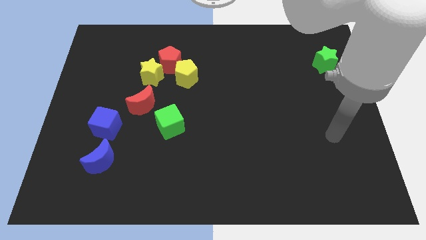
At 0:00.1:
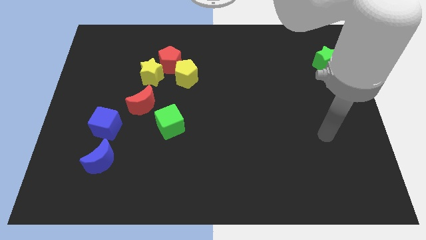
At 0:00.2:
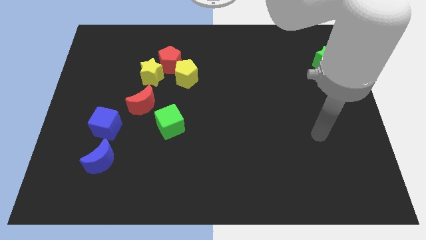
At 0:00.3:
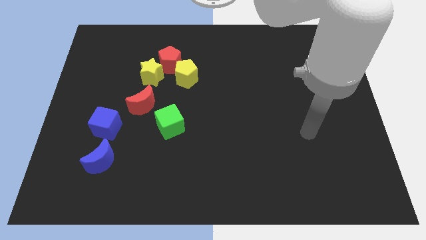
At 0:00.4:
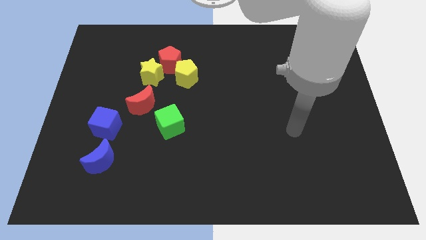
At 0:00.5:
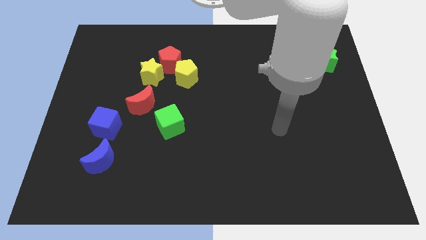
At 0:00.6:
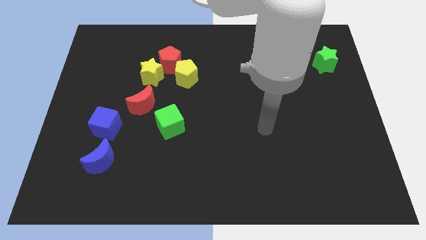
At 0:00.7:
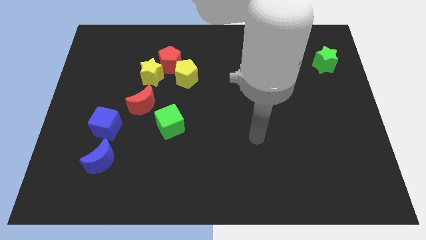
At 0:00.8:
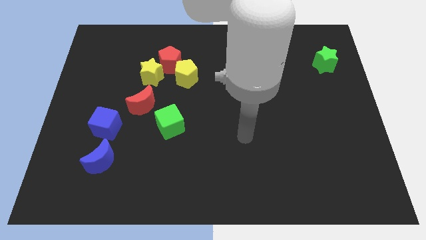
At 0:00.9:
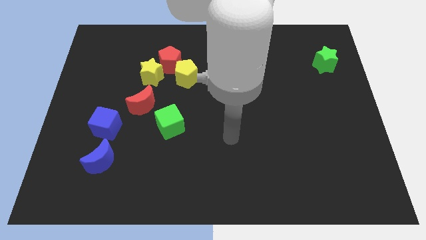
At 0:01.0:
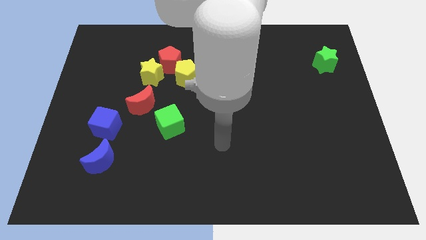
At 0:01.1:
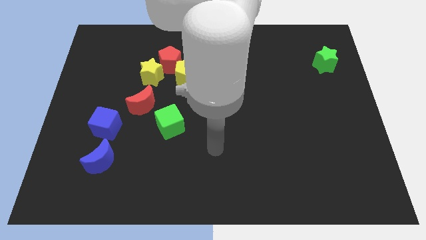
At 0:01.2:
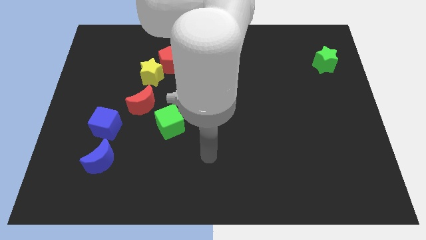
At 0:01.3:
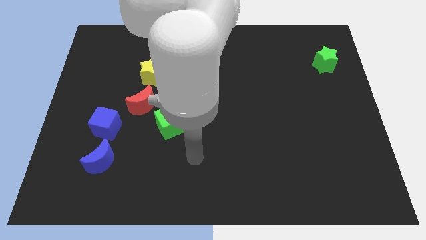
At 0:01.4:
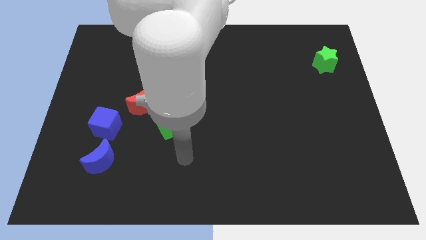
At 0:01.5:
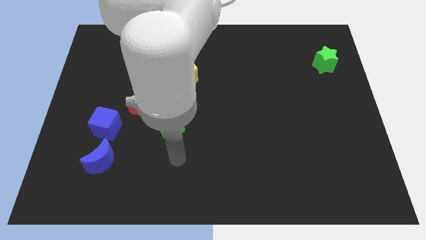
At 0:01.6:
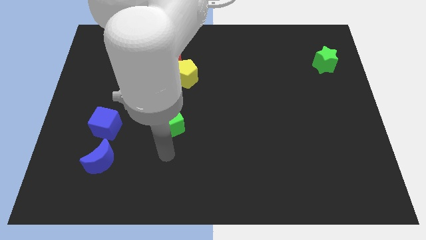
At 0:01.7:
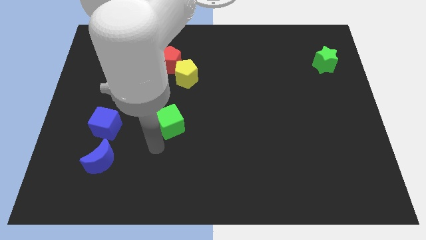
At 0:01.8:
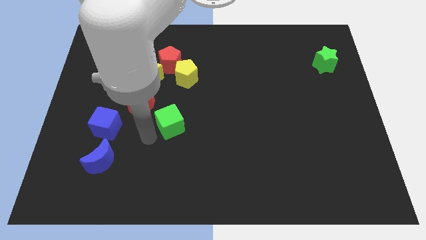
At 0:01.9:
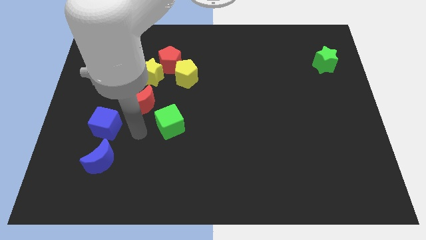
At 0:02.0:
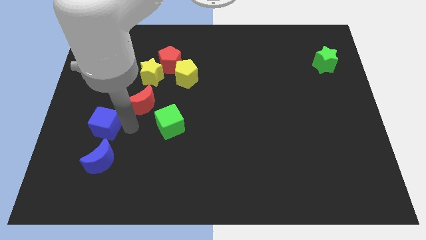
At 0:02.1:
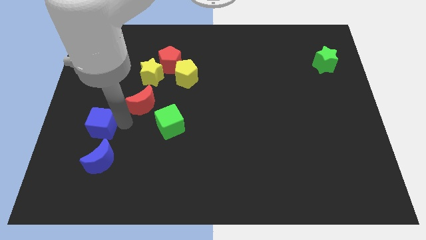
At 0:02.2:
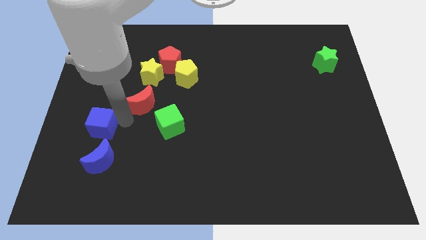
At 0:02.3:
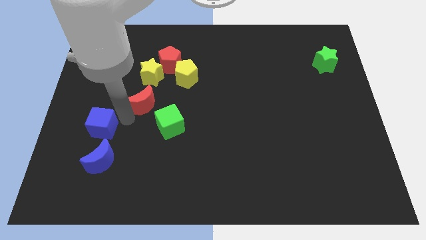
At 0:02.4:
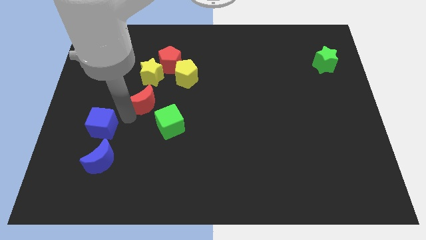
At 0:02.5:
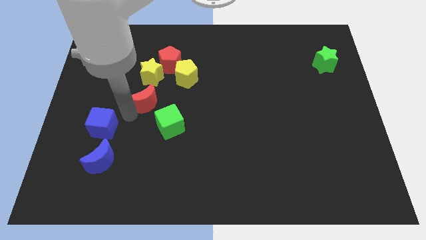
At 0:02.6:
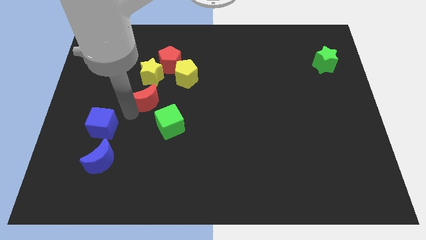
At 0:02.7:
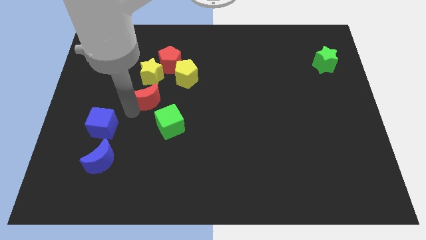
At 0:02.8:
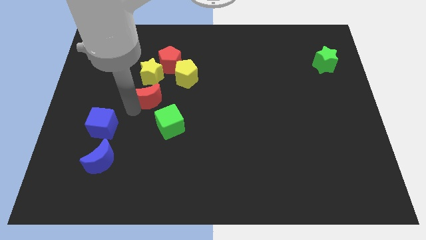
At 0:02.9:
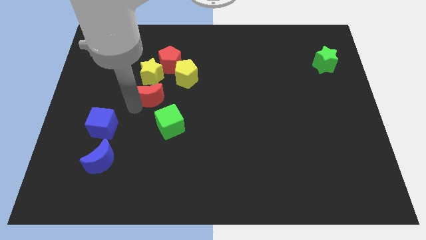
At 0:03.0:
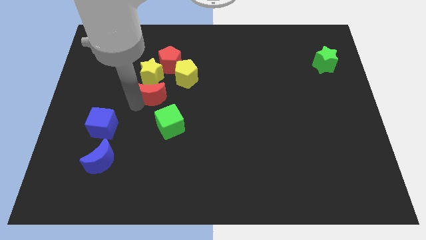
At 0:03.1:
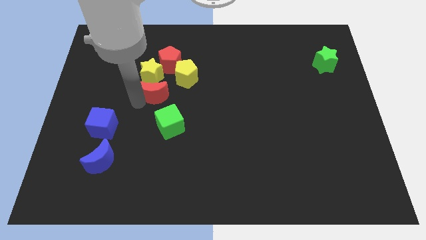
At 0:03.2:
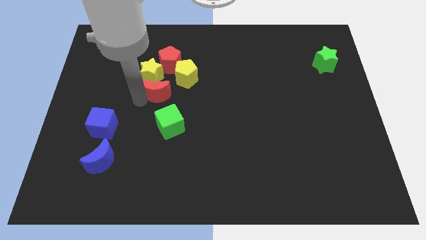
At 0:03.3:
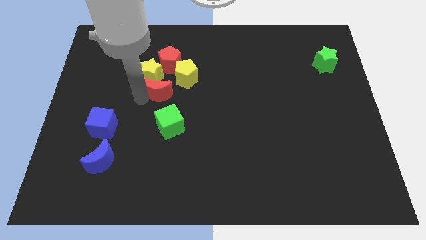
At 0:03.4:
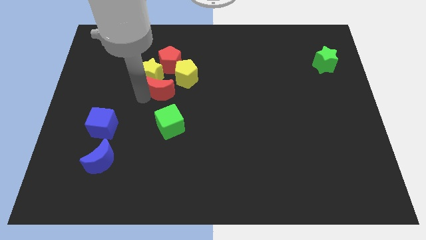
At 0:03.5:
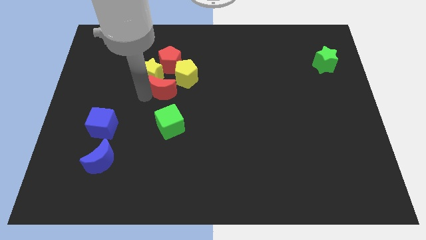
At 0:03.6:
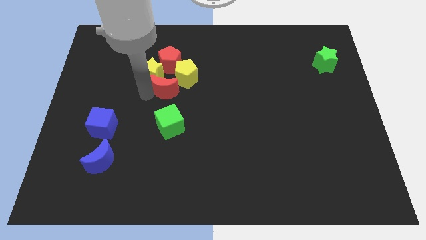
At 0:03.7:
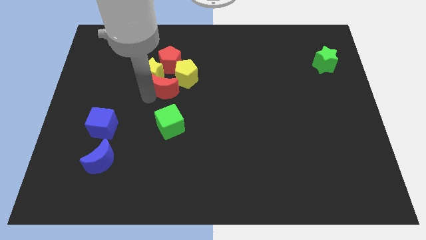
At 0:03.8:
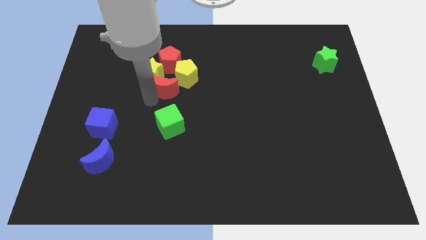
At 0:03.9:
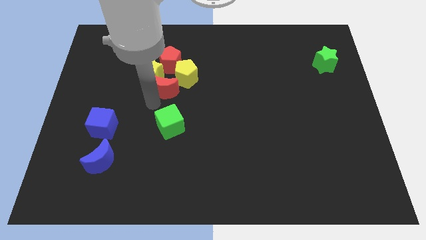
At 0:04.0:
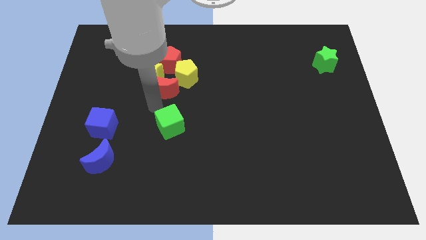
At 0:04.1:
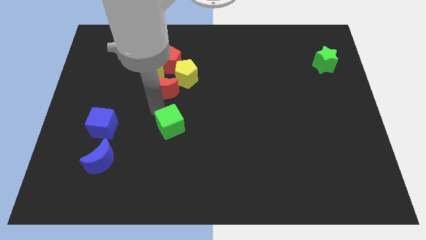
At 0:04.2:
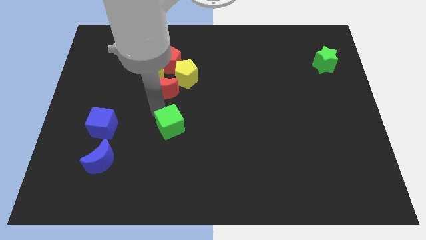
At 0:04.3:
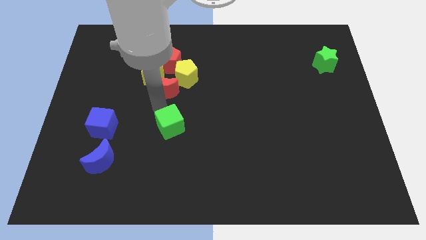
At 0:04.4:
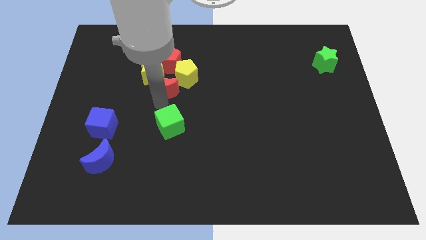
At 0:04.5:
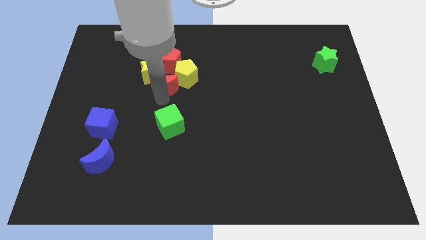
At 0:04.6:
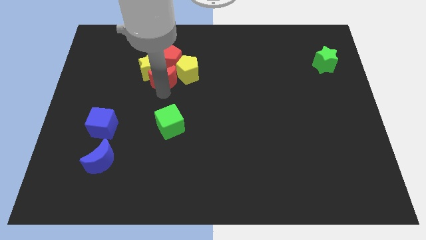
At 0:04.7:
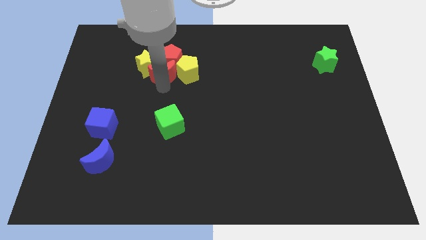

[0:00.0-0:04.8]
push the red moon next to the red pentagon

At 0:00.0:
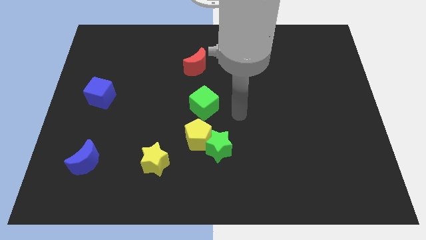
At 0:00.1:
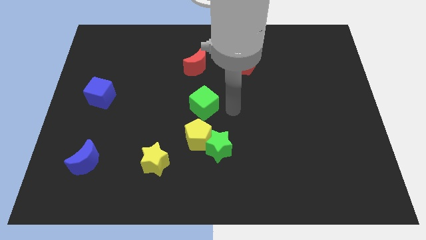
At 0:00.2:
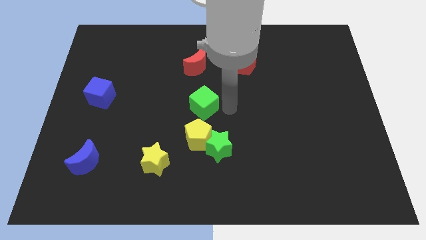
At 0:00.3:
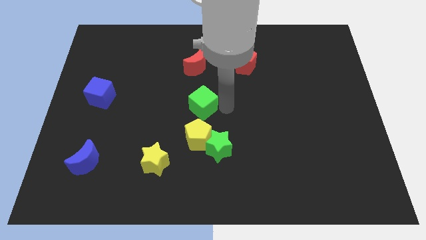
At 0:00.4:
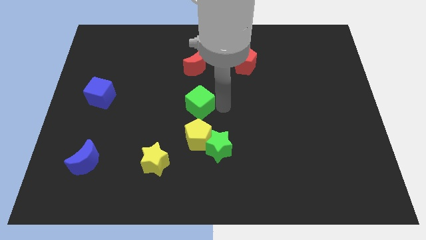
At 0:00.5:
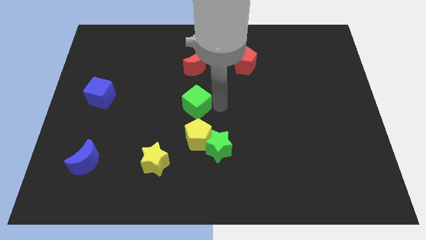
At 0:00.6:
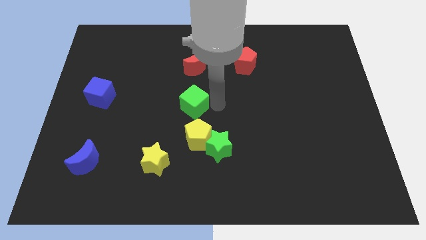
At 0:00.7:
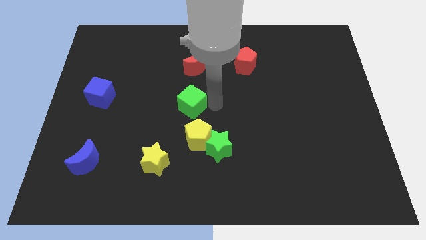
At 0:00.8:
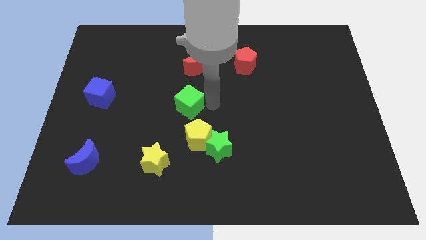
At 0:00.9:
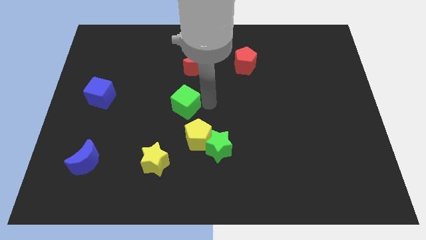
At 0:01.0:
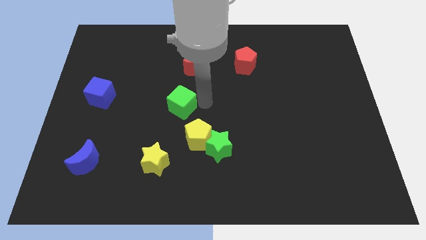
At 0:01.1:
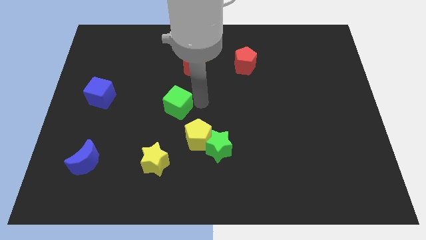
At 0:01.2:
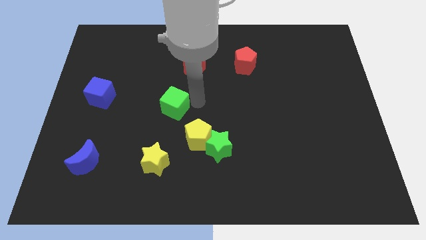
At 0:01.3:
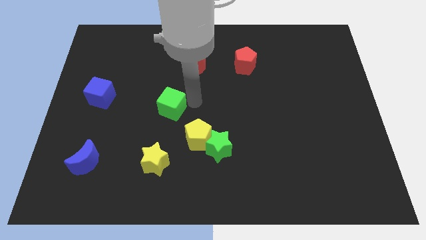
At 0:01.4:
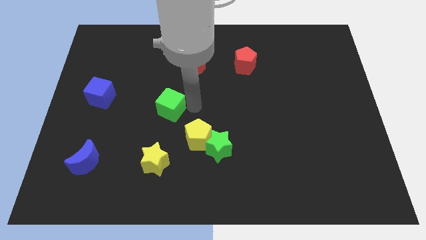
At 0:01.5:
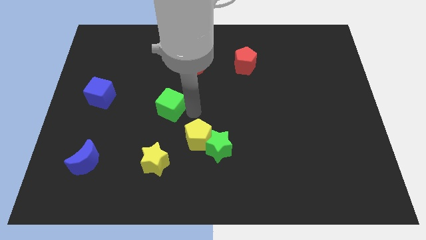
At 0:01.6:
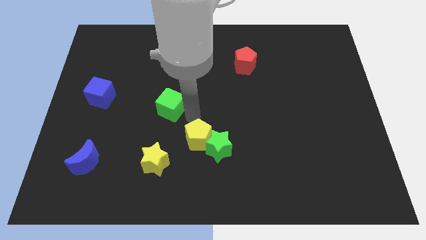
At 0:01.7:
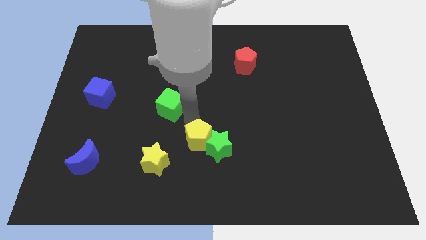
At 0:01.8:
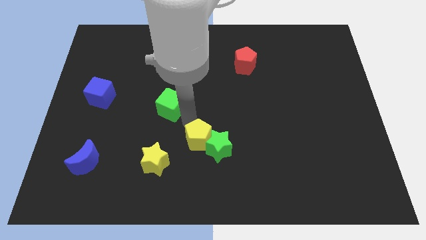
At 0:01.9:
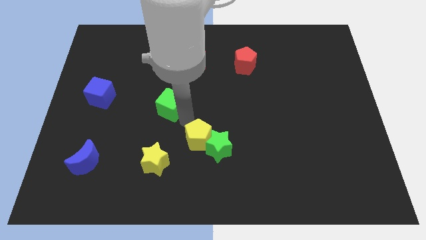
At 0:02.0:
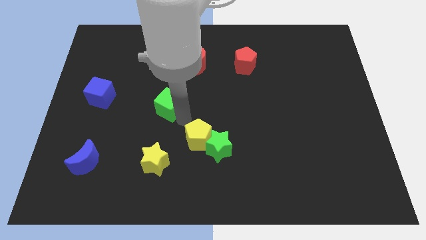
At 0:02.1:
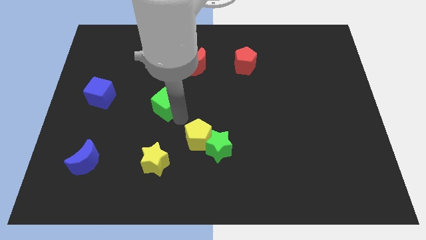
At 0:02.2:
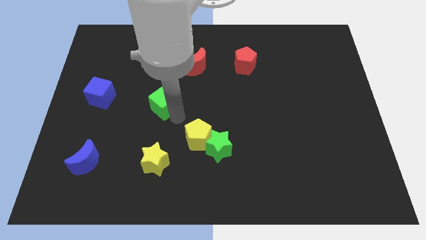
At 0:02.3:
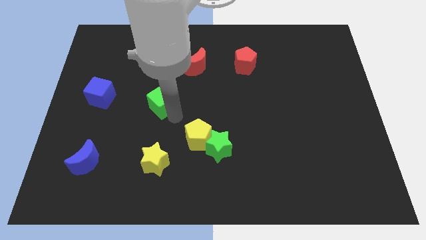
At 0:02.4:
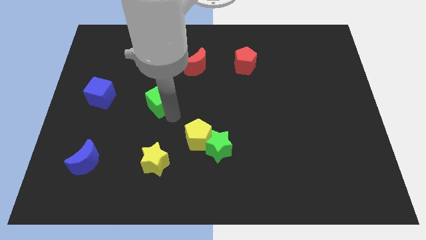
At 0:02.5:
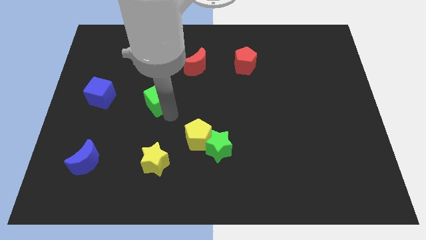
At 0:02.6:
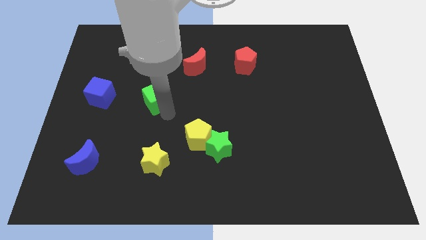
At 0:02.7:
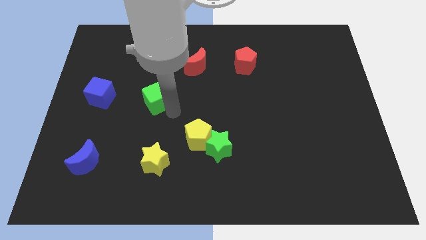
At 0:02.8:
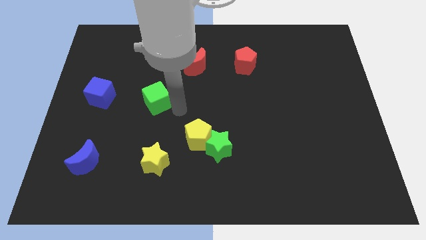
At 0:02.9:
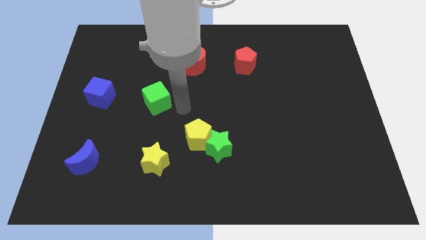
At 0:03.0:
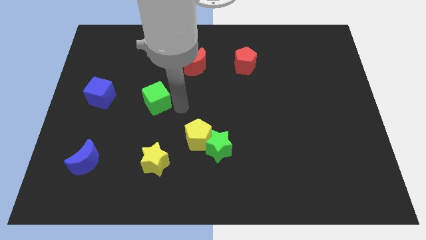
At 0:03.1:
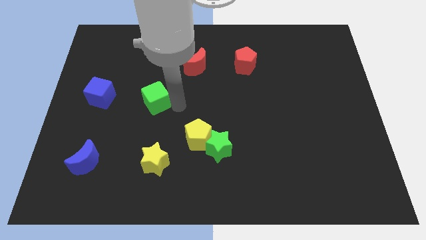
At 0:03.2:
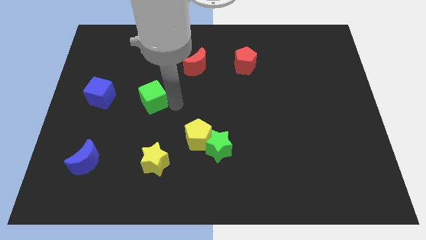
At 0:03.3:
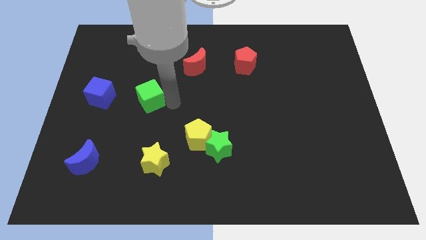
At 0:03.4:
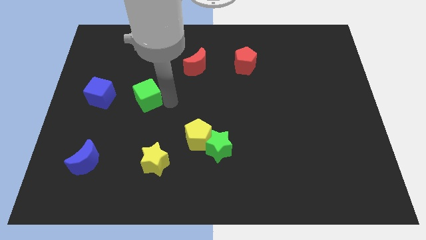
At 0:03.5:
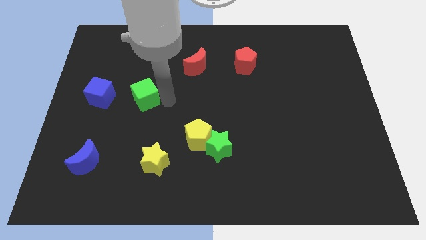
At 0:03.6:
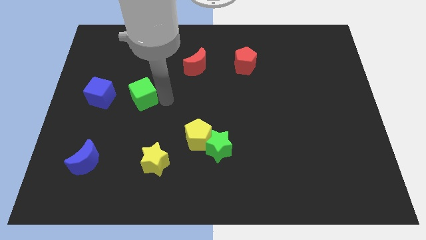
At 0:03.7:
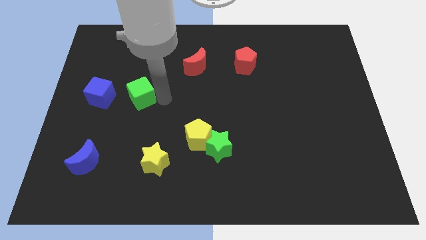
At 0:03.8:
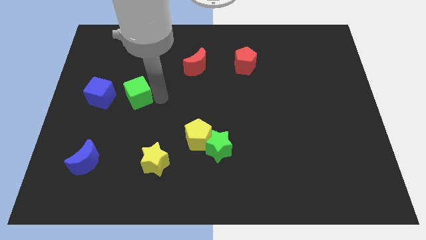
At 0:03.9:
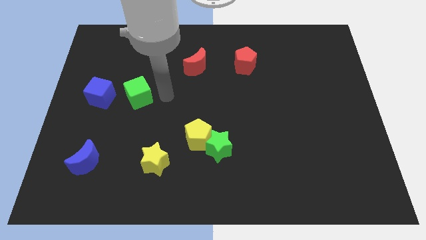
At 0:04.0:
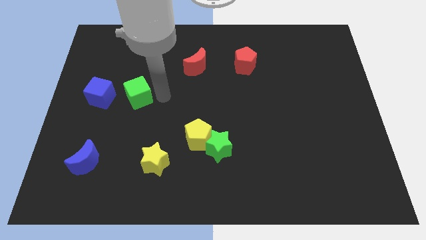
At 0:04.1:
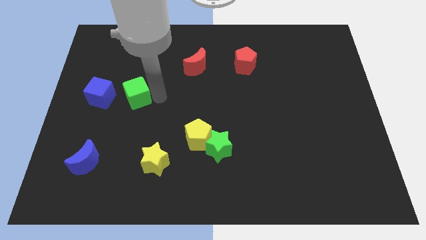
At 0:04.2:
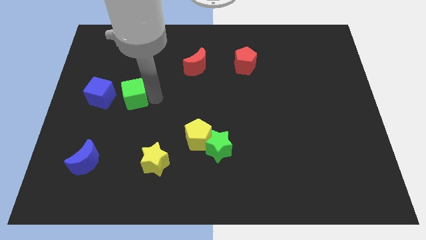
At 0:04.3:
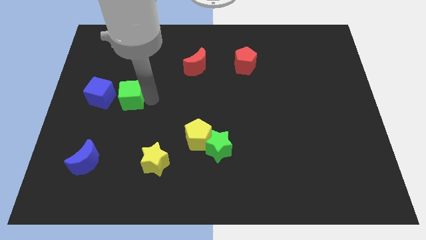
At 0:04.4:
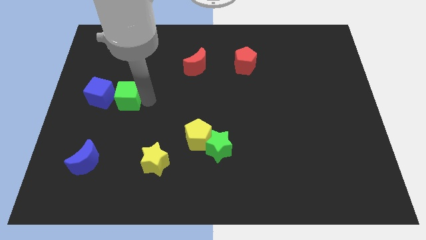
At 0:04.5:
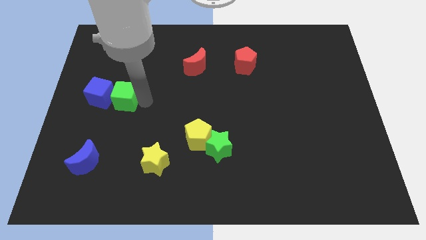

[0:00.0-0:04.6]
slide the green cube to the blue cube
